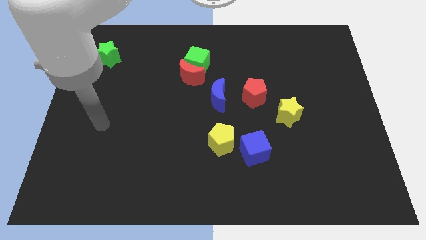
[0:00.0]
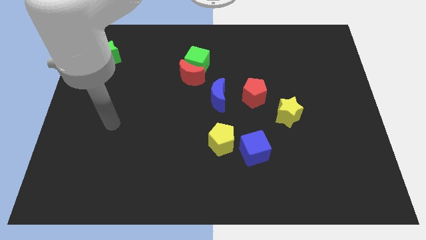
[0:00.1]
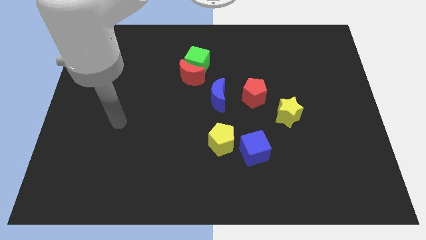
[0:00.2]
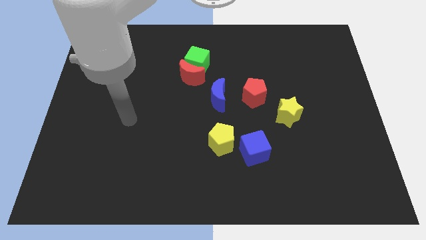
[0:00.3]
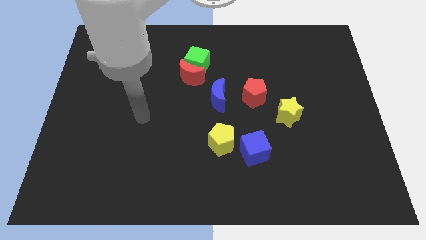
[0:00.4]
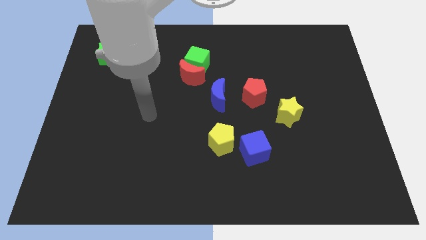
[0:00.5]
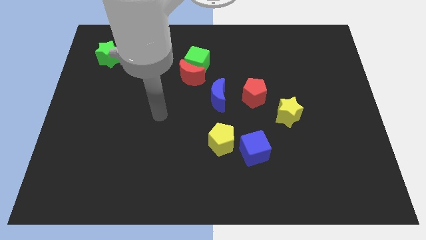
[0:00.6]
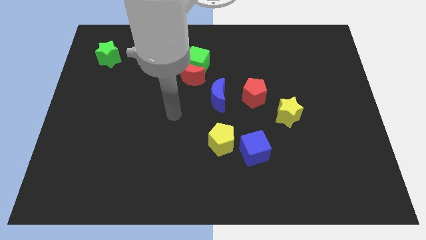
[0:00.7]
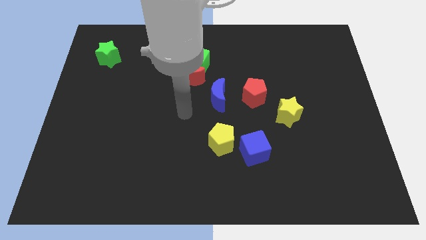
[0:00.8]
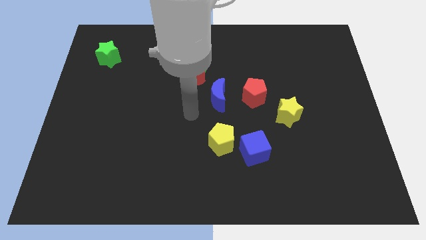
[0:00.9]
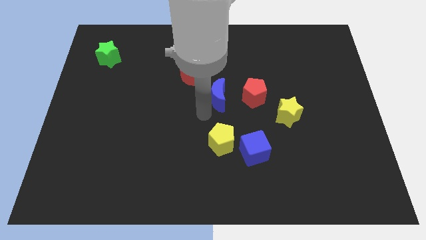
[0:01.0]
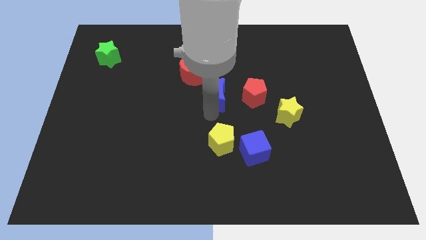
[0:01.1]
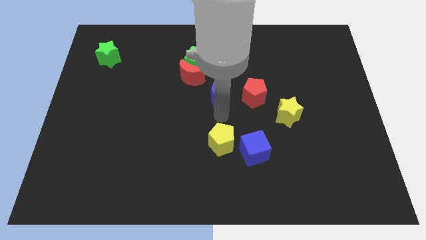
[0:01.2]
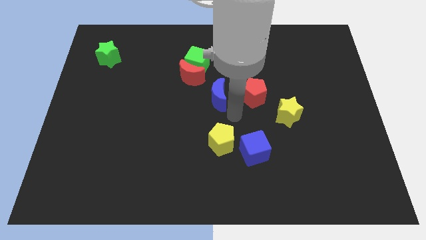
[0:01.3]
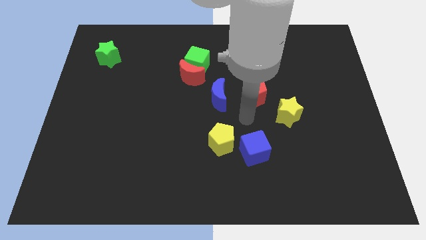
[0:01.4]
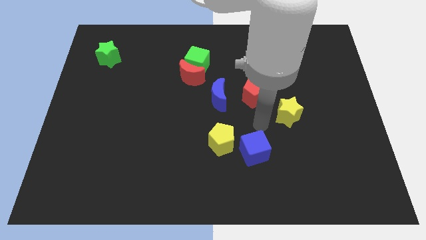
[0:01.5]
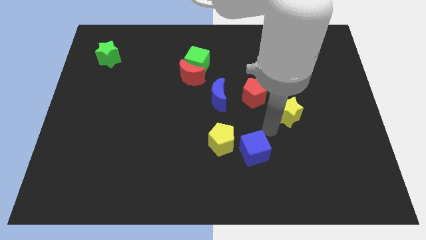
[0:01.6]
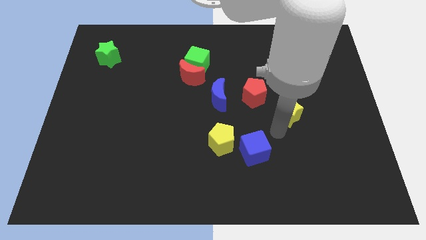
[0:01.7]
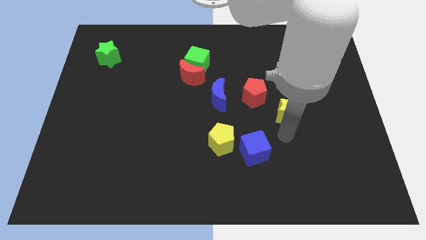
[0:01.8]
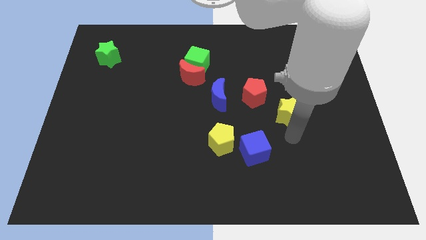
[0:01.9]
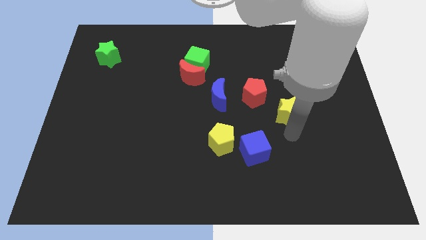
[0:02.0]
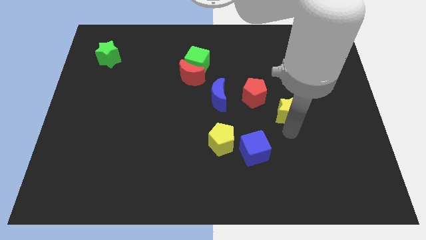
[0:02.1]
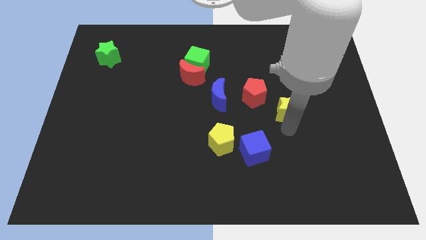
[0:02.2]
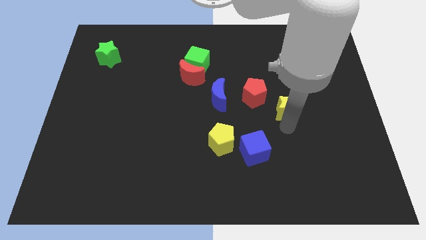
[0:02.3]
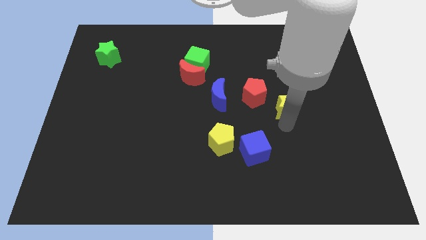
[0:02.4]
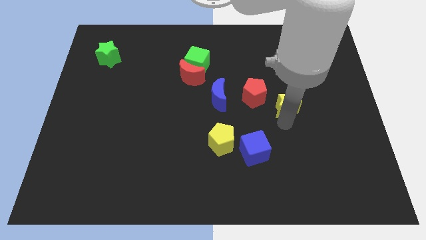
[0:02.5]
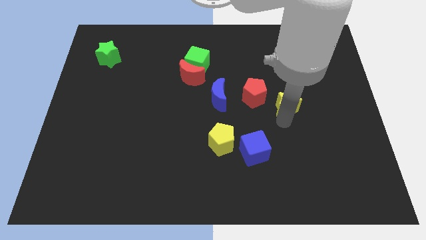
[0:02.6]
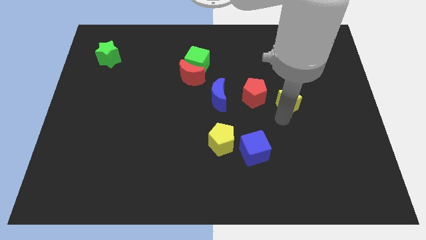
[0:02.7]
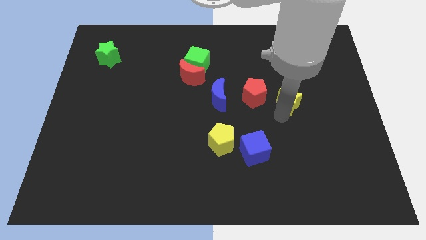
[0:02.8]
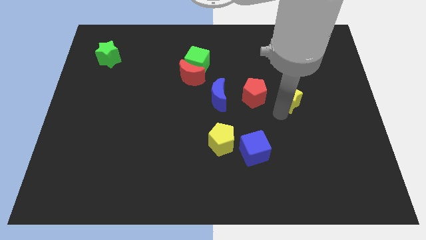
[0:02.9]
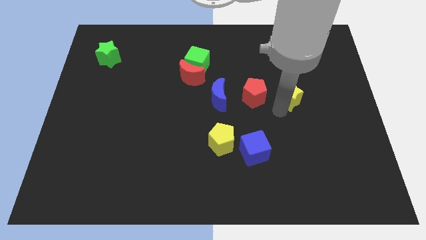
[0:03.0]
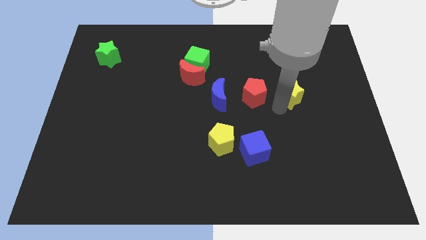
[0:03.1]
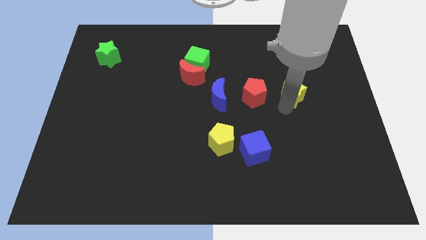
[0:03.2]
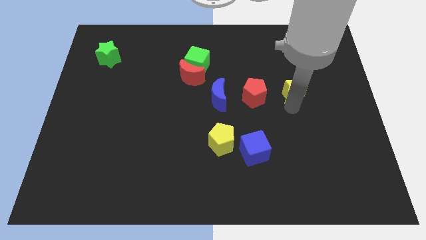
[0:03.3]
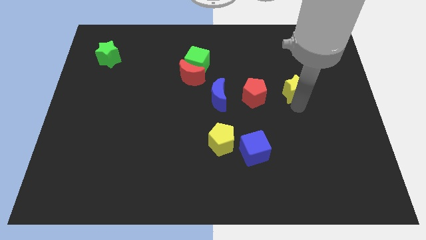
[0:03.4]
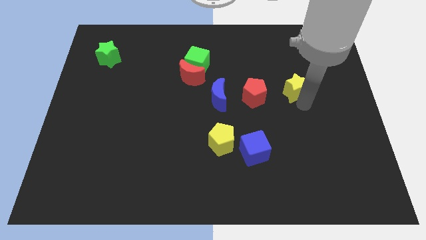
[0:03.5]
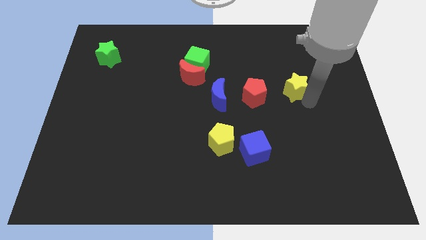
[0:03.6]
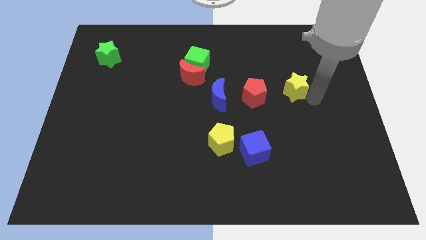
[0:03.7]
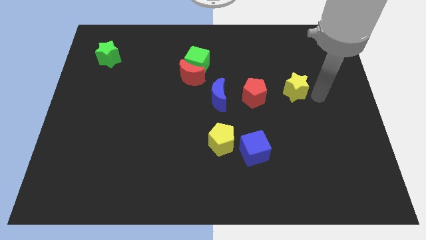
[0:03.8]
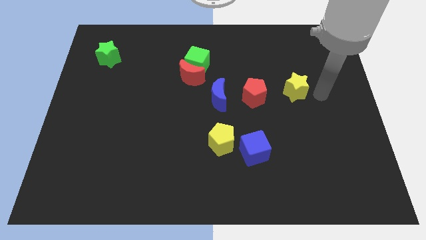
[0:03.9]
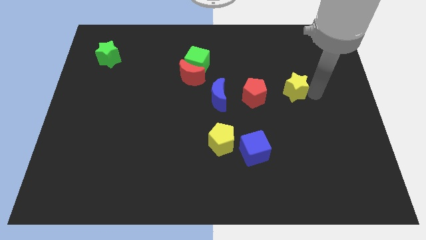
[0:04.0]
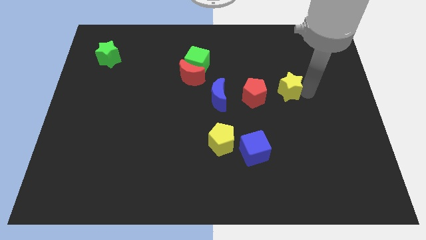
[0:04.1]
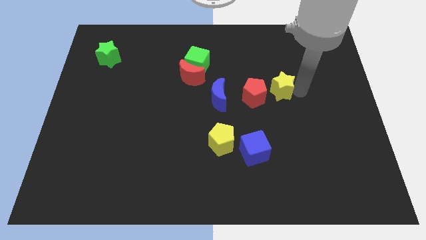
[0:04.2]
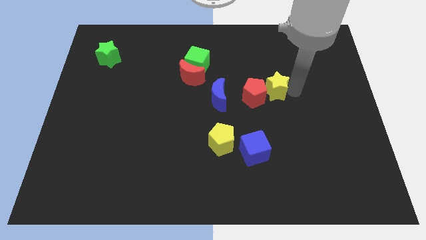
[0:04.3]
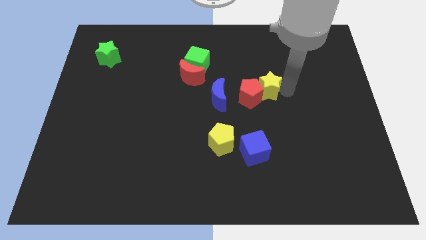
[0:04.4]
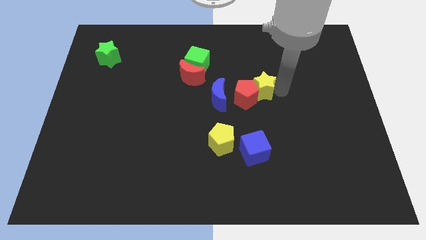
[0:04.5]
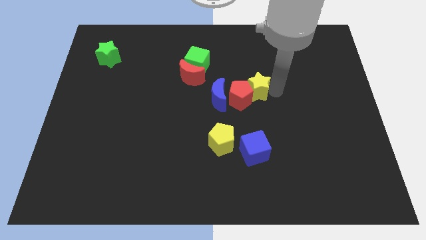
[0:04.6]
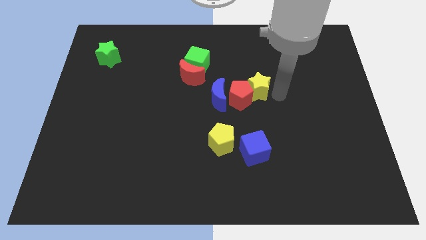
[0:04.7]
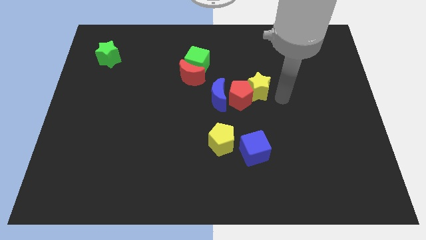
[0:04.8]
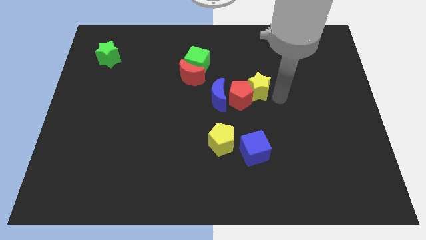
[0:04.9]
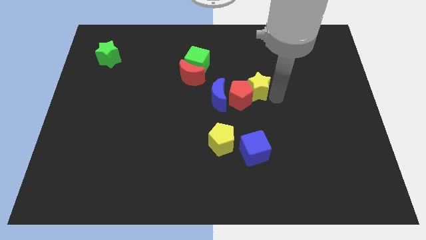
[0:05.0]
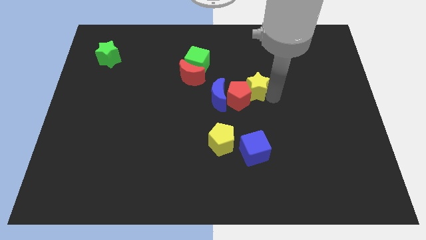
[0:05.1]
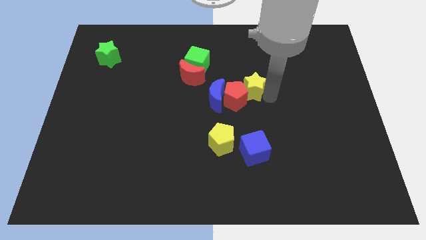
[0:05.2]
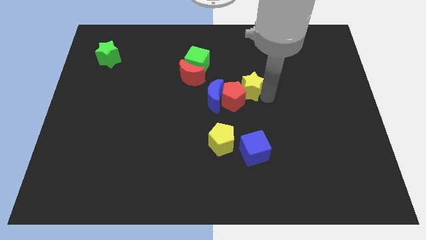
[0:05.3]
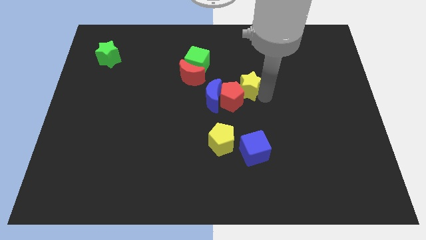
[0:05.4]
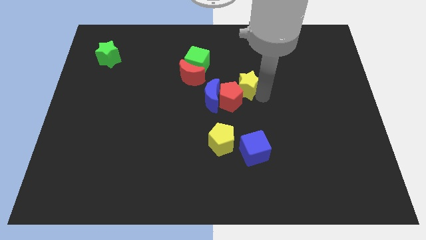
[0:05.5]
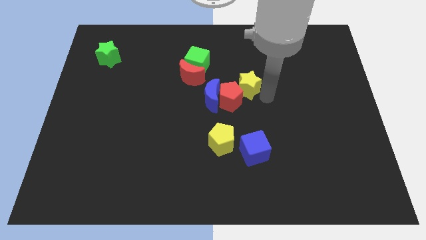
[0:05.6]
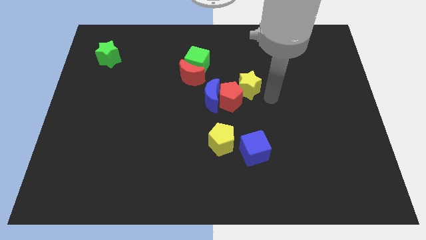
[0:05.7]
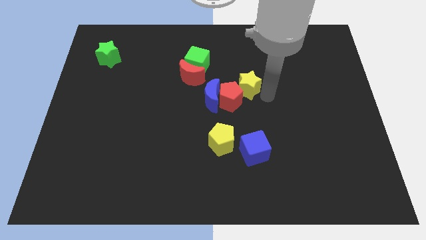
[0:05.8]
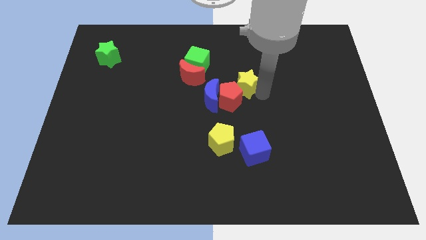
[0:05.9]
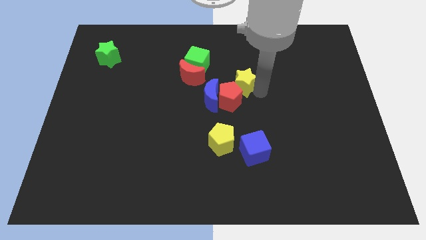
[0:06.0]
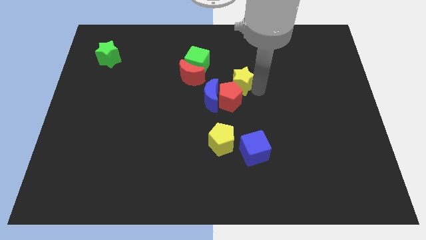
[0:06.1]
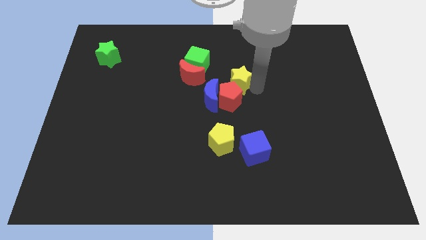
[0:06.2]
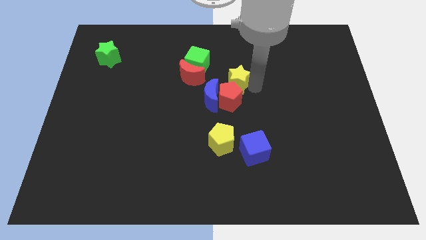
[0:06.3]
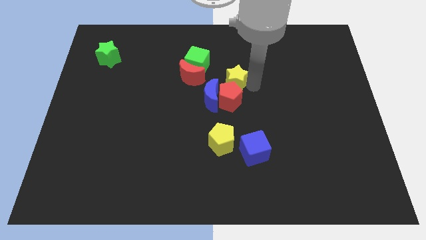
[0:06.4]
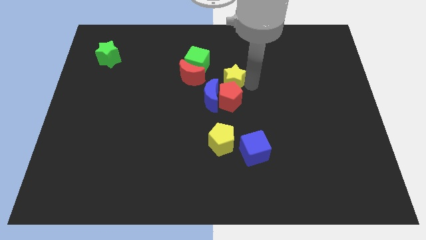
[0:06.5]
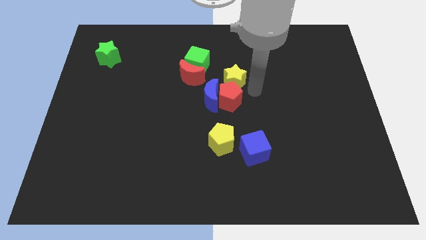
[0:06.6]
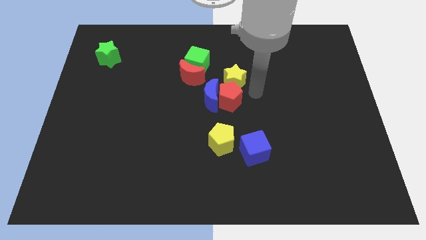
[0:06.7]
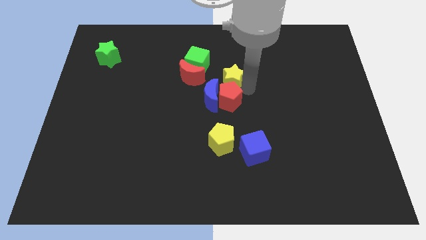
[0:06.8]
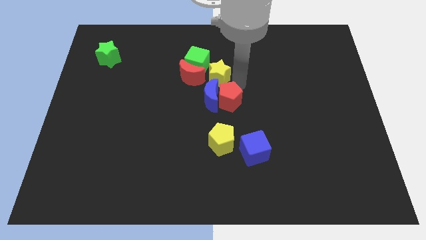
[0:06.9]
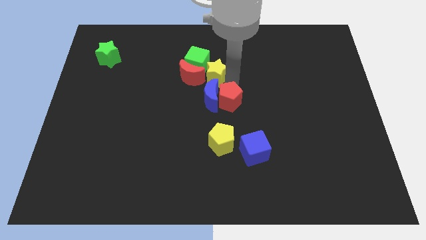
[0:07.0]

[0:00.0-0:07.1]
move the yellow star to the green cube

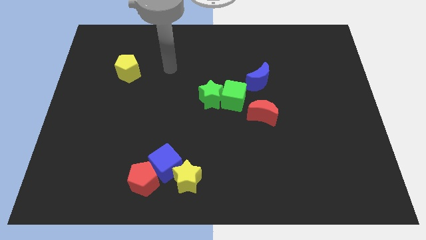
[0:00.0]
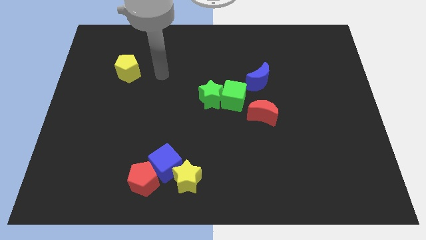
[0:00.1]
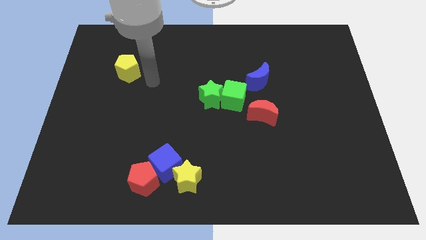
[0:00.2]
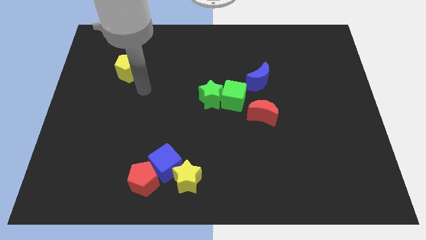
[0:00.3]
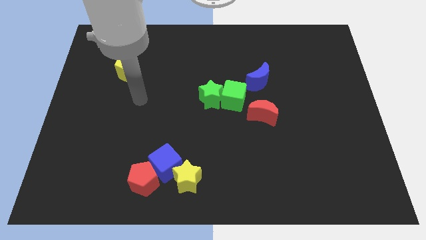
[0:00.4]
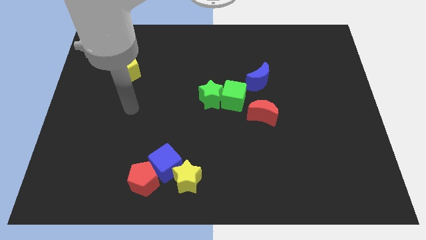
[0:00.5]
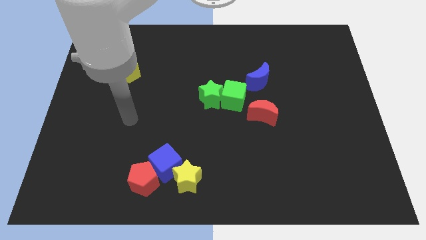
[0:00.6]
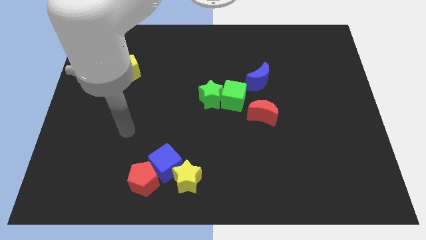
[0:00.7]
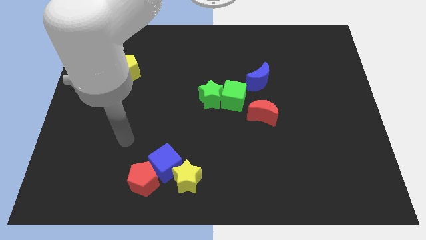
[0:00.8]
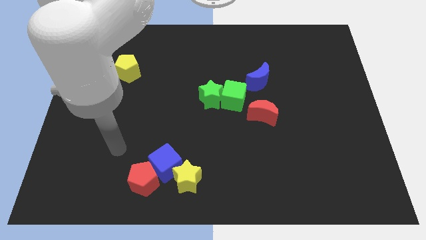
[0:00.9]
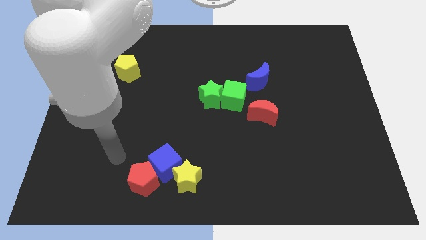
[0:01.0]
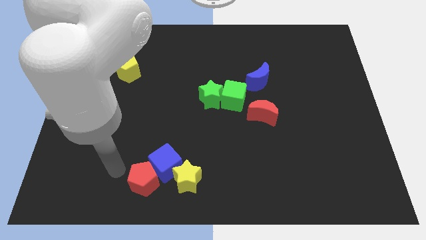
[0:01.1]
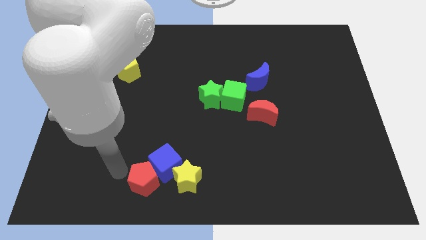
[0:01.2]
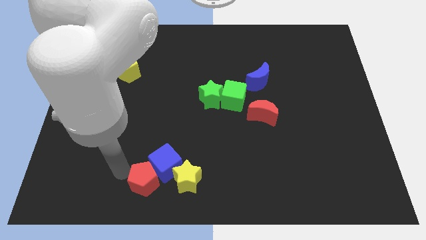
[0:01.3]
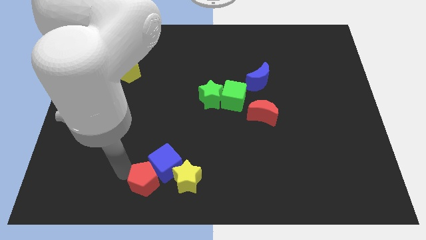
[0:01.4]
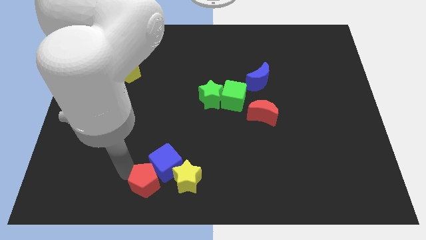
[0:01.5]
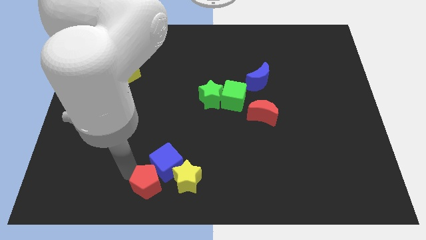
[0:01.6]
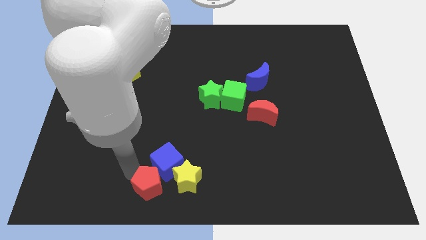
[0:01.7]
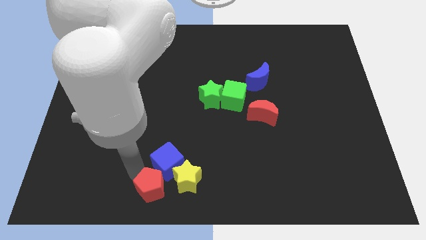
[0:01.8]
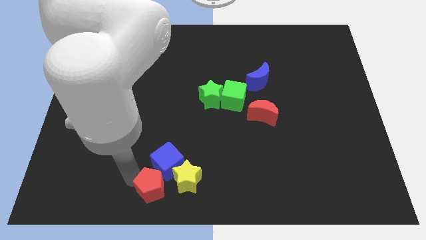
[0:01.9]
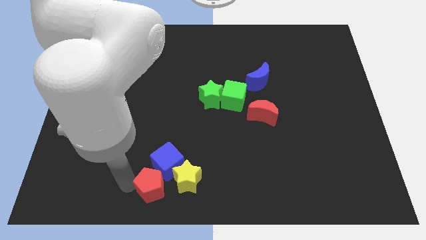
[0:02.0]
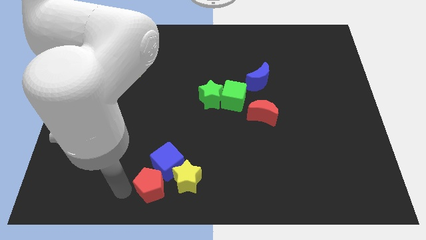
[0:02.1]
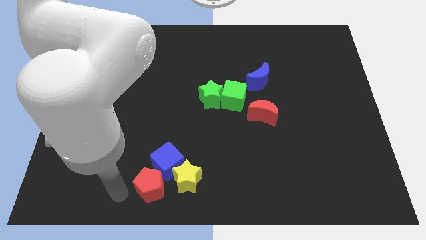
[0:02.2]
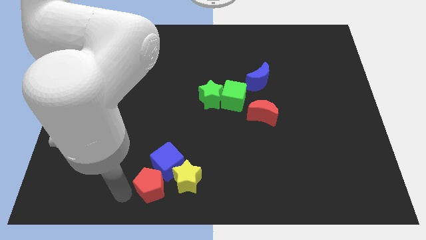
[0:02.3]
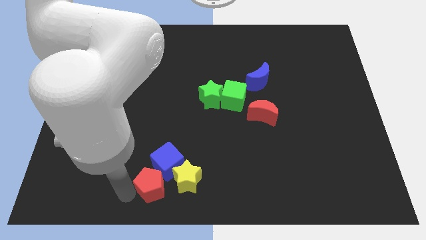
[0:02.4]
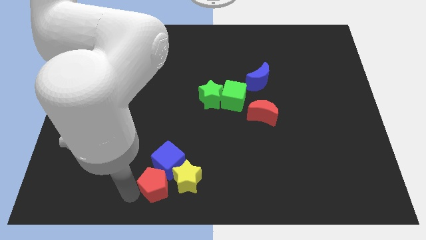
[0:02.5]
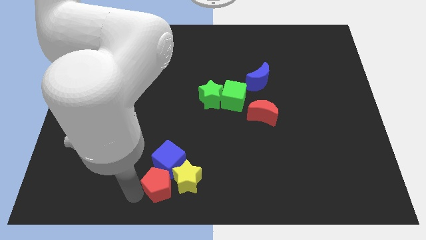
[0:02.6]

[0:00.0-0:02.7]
slide the red pentagon next to the yellow star
